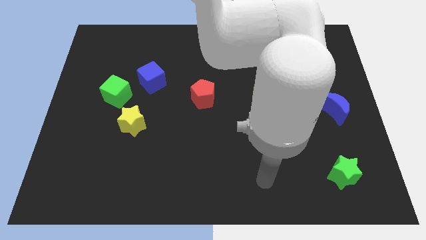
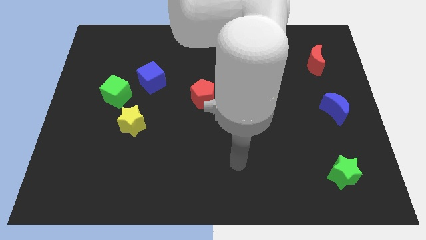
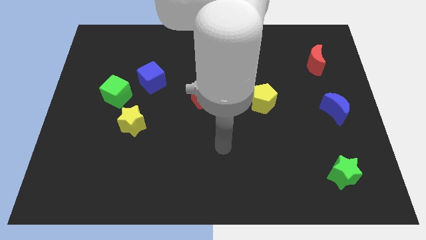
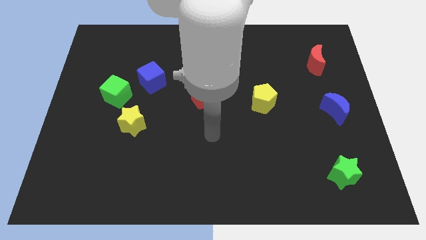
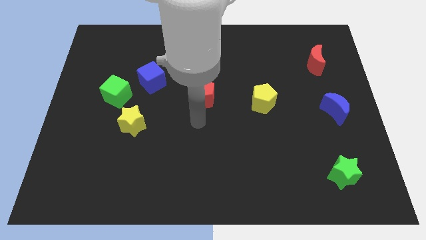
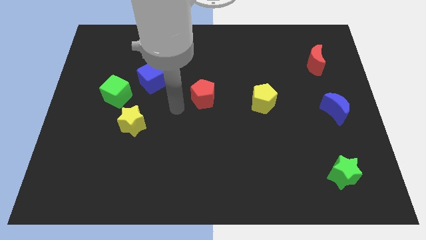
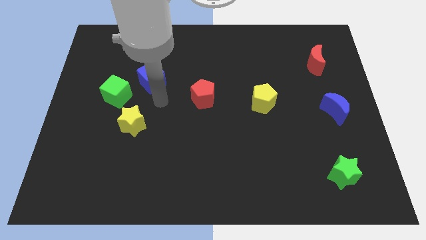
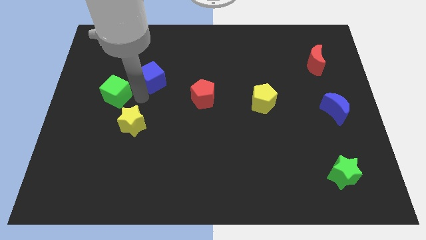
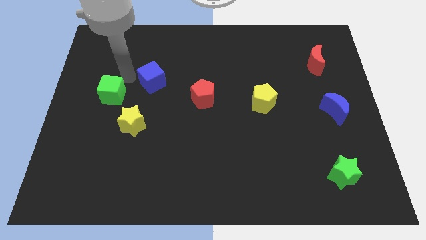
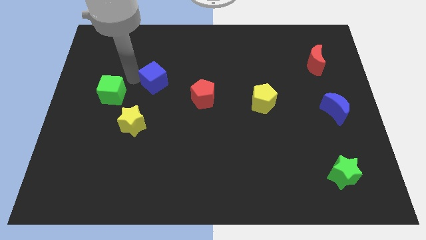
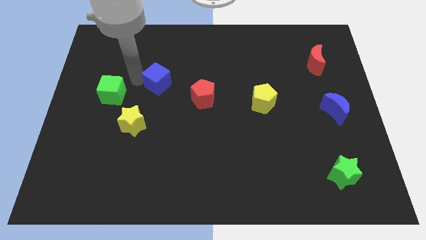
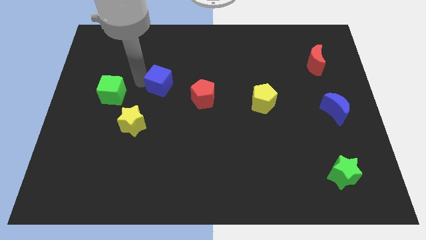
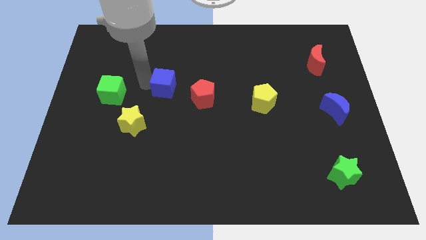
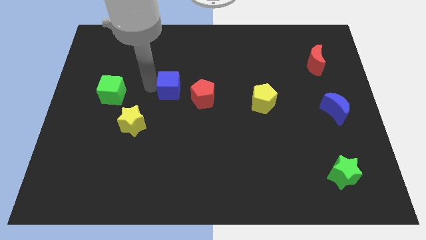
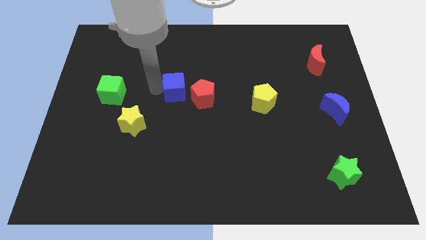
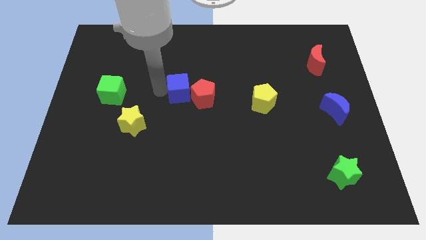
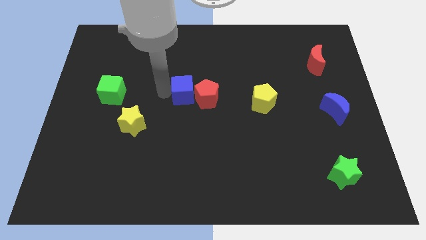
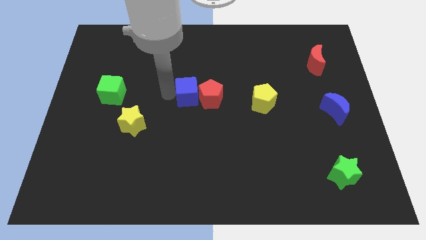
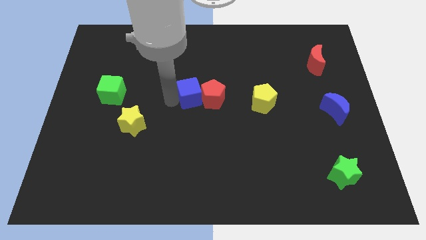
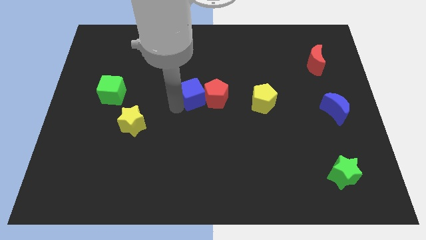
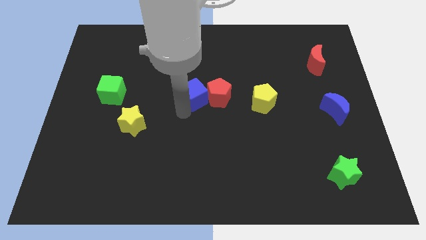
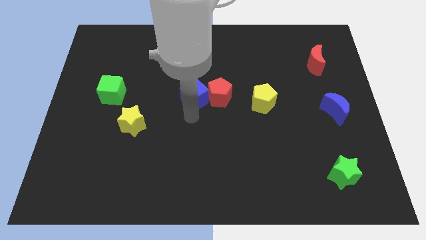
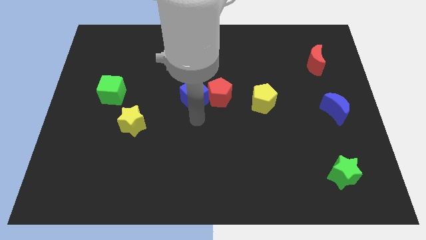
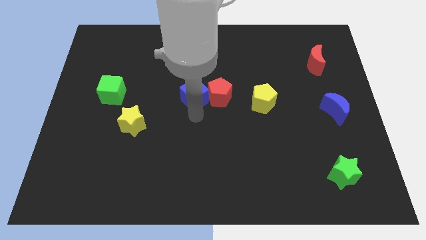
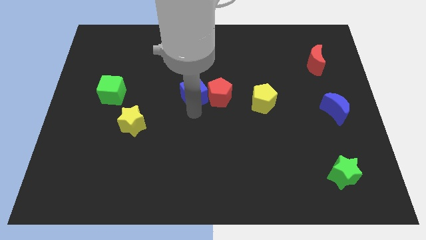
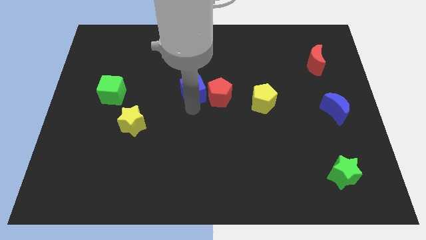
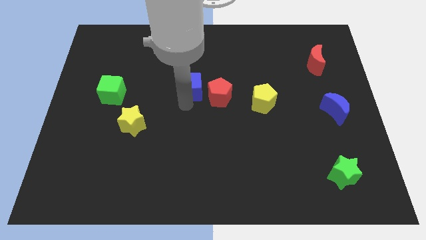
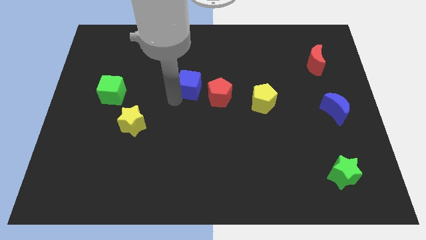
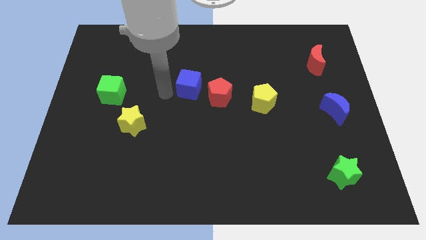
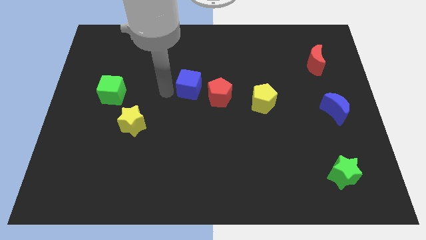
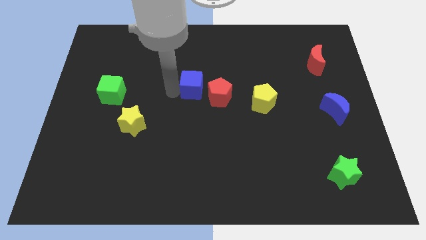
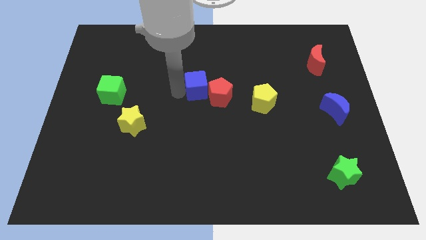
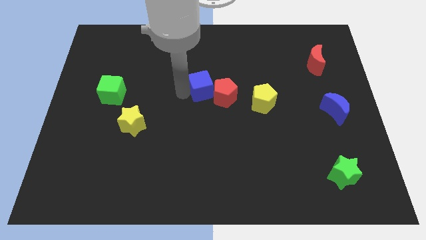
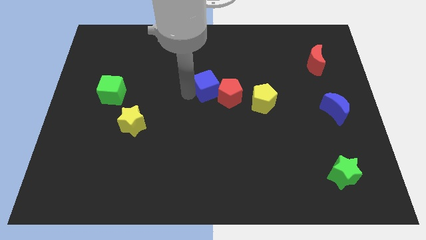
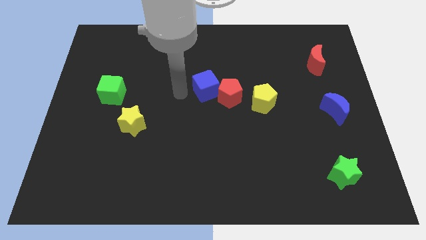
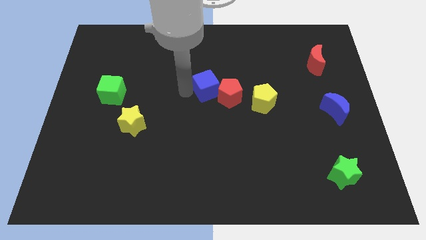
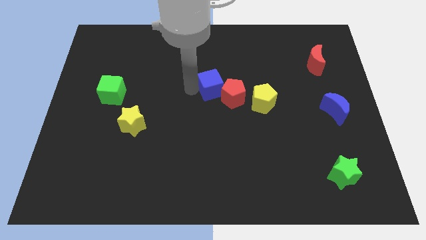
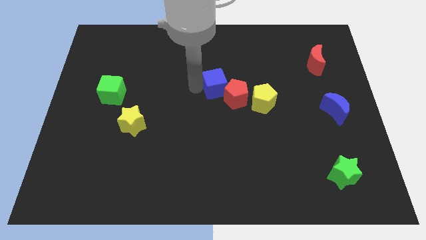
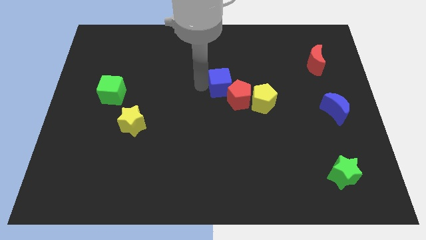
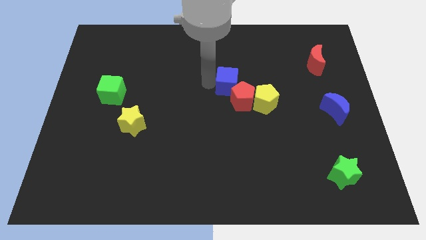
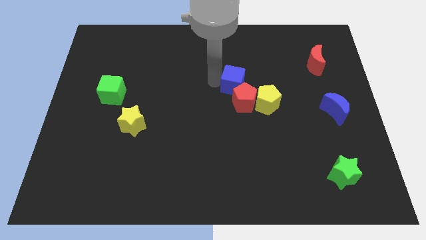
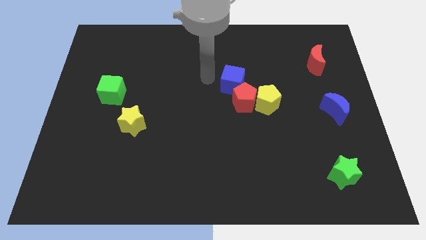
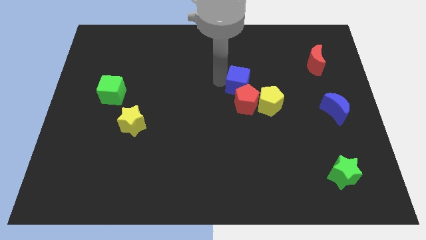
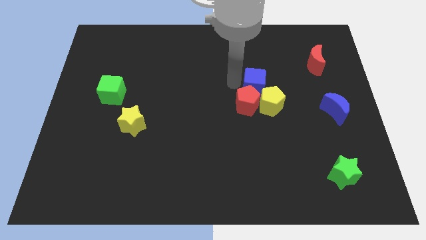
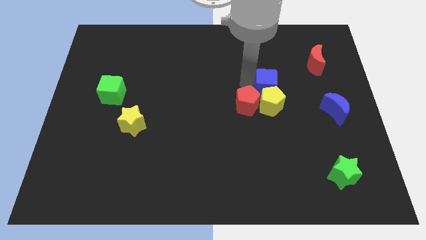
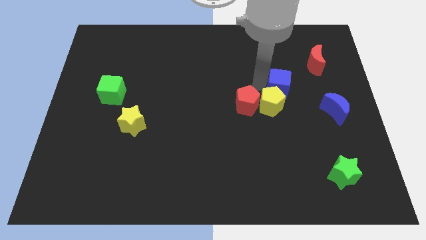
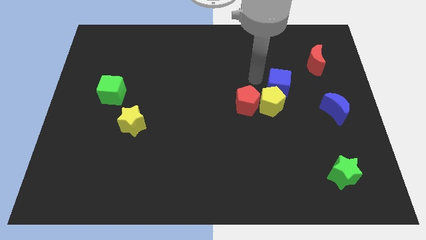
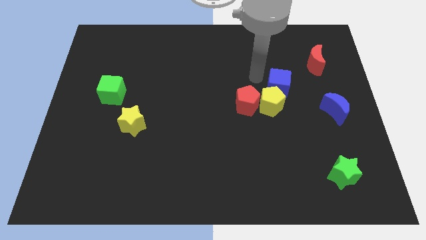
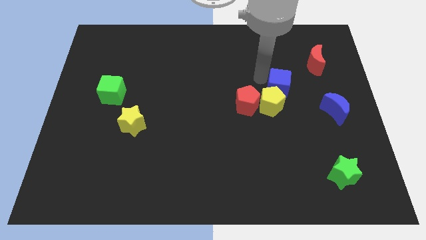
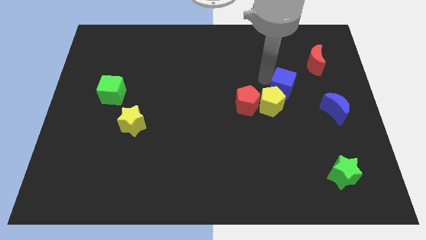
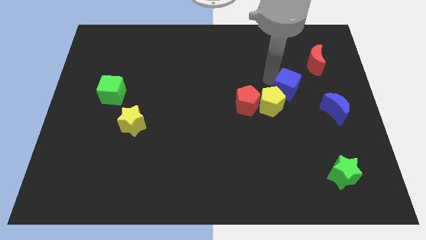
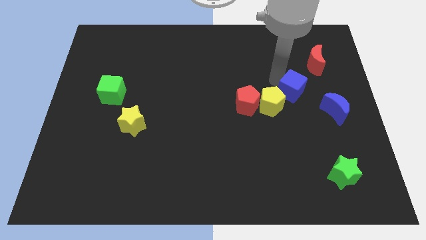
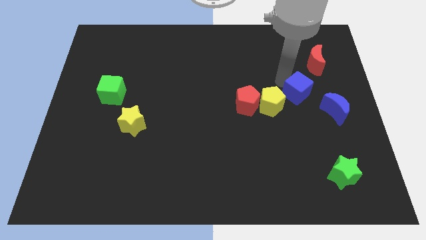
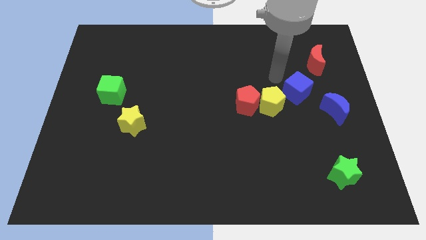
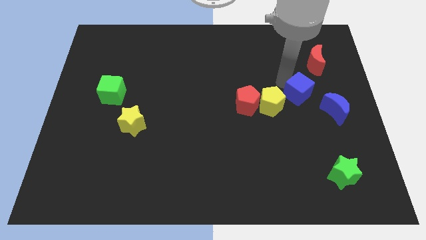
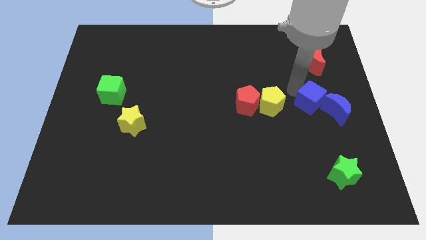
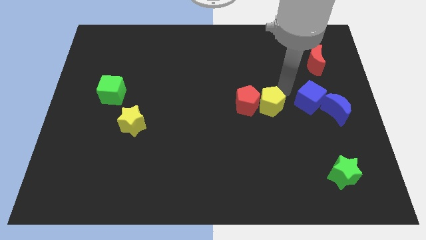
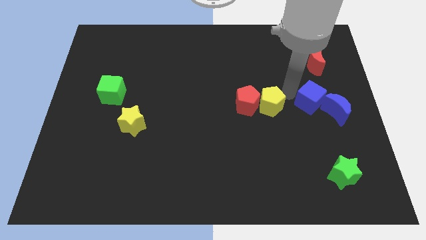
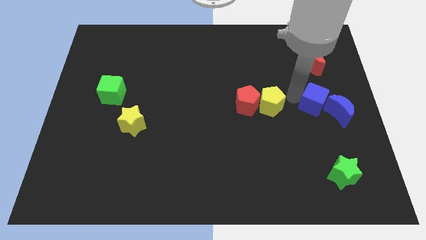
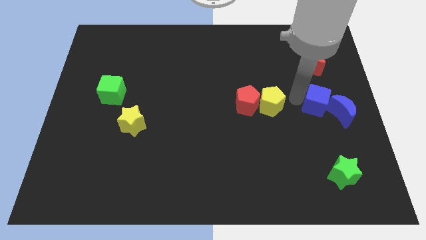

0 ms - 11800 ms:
put the blue cube to the blue moon

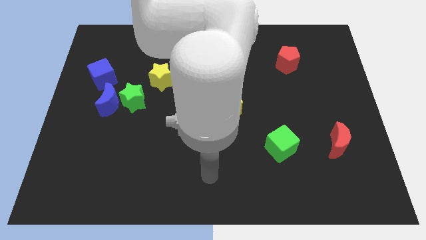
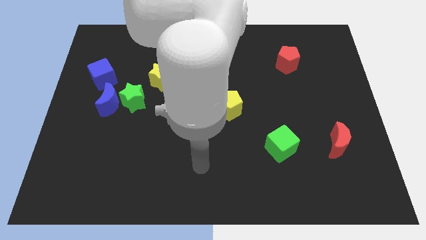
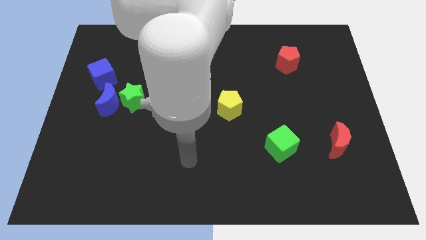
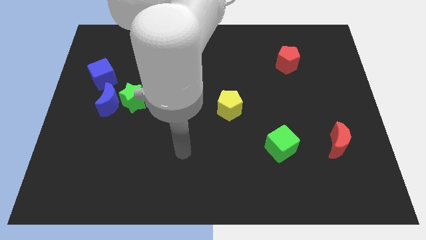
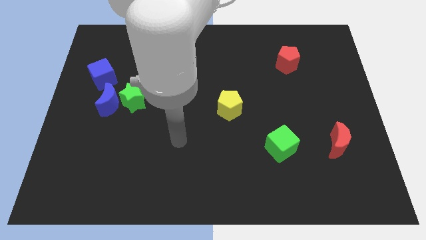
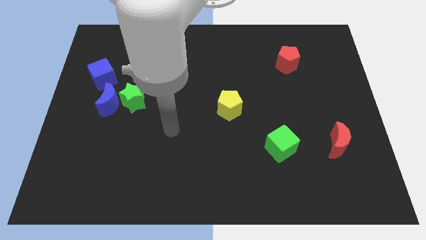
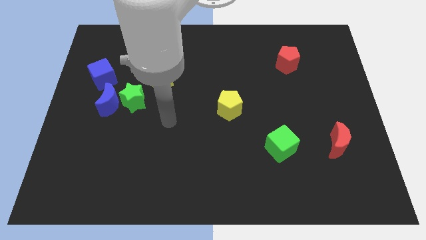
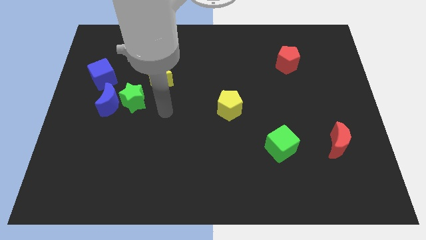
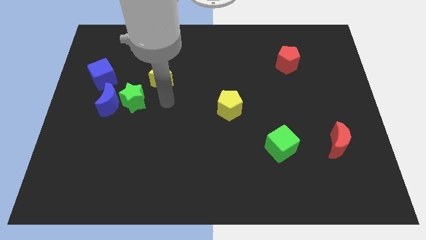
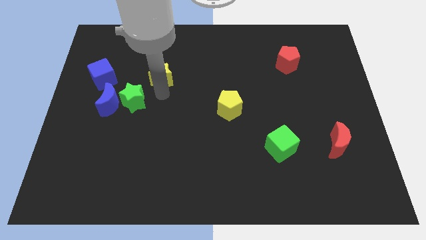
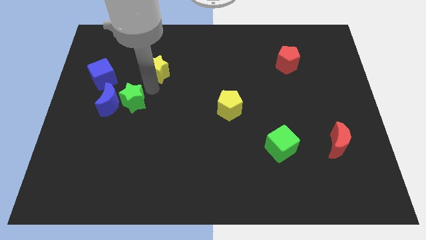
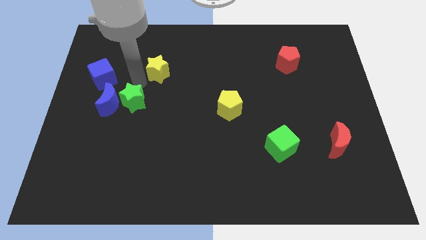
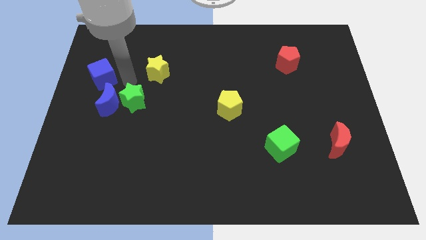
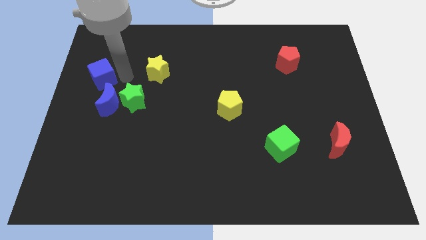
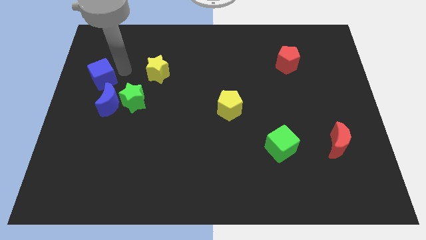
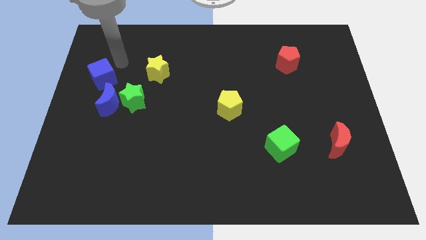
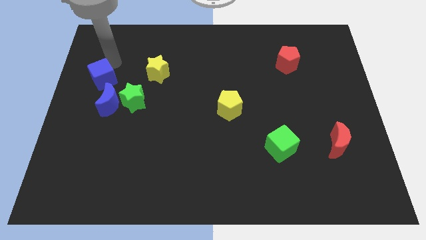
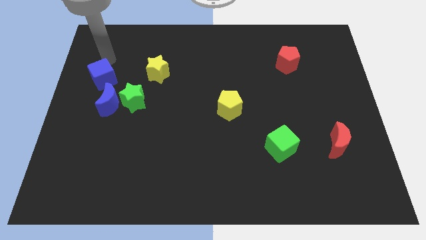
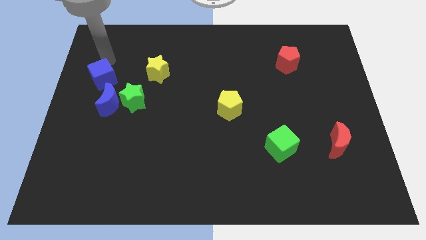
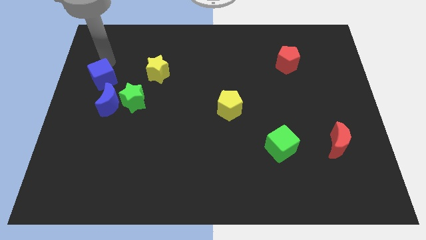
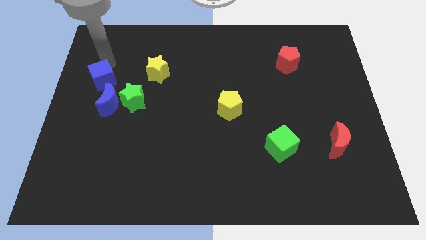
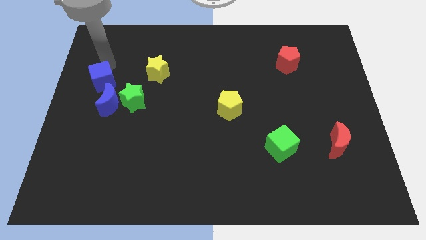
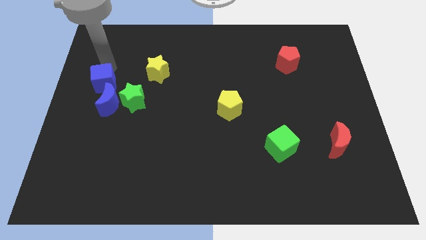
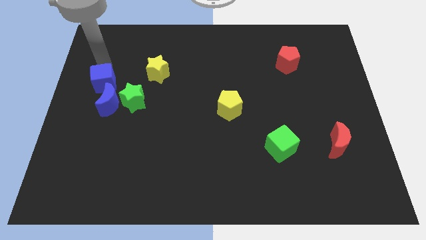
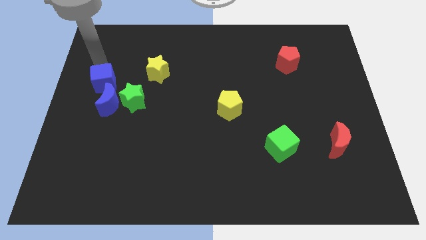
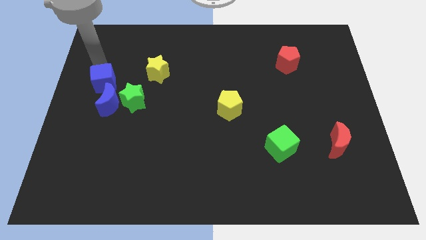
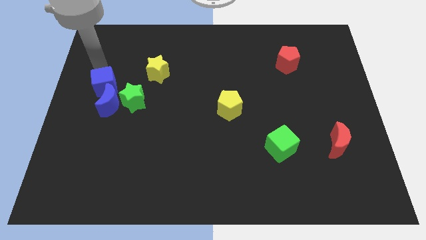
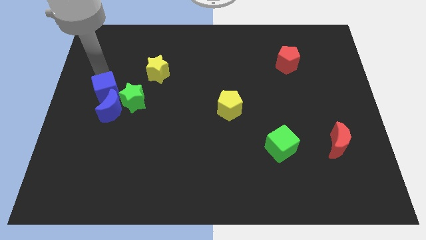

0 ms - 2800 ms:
put the blue cube close to the blue moon
